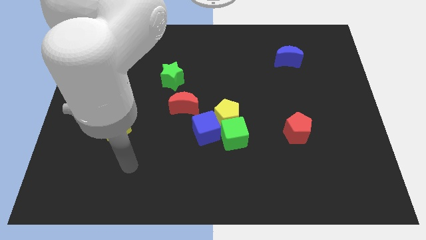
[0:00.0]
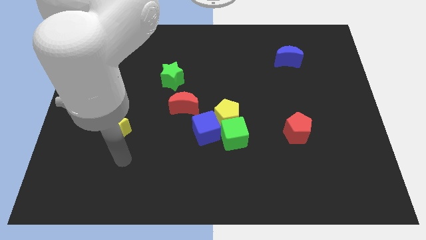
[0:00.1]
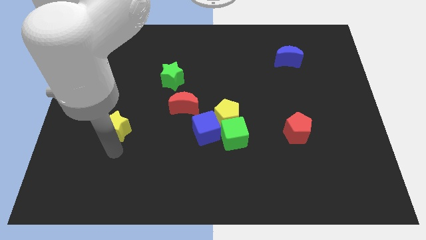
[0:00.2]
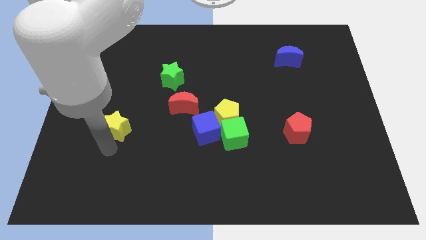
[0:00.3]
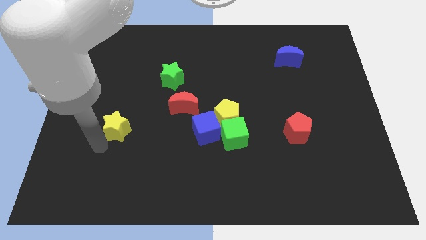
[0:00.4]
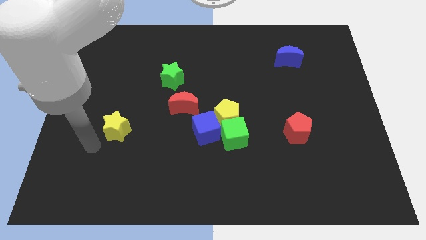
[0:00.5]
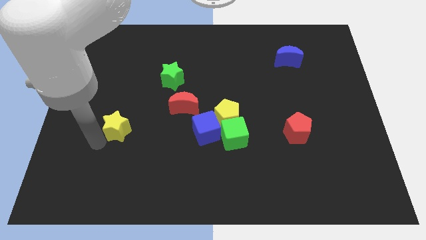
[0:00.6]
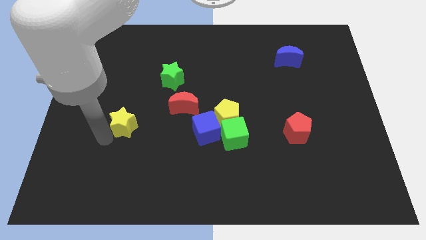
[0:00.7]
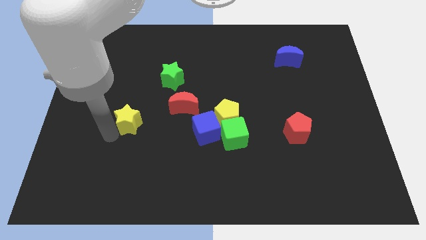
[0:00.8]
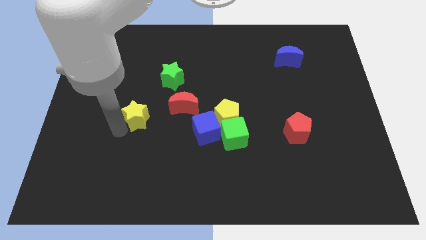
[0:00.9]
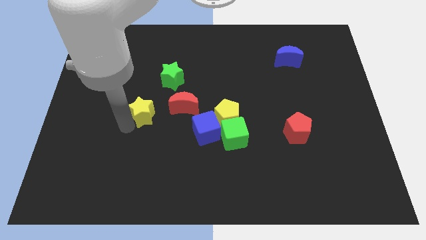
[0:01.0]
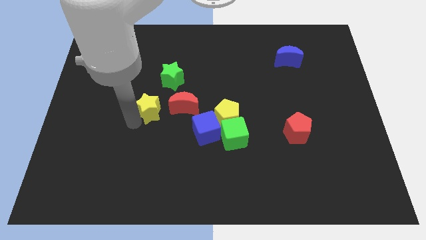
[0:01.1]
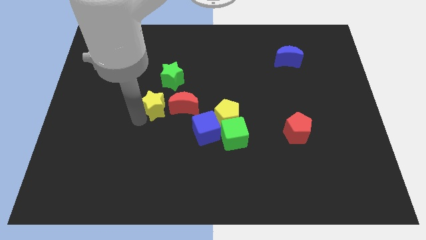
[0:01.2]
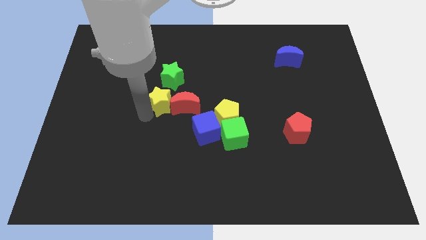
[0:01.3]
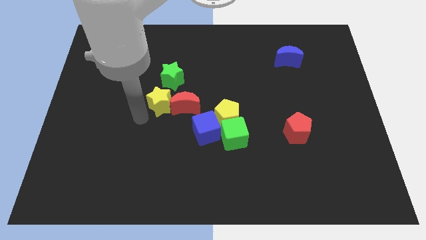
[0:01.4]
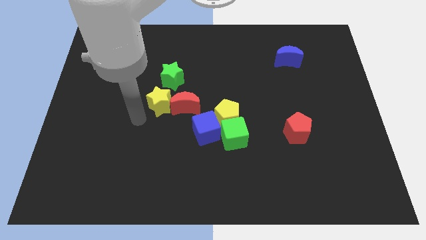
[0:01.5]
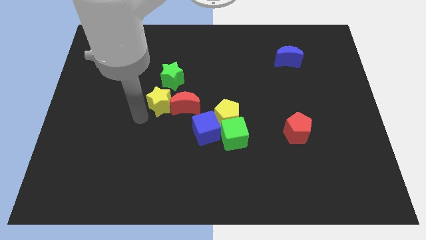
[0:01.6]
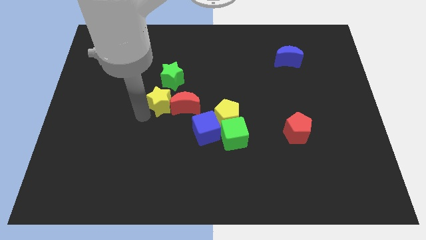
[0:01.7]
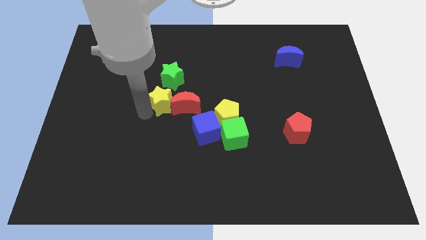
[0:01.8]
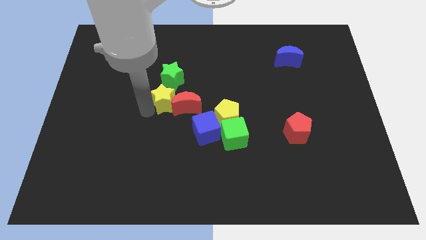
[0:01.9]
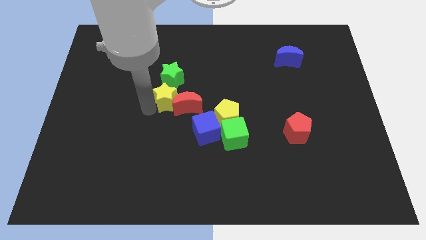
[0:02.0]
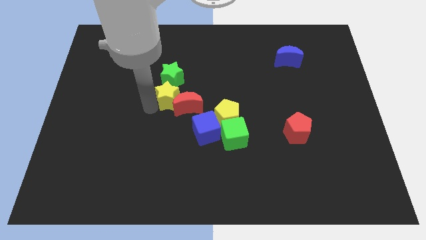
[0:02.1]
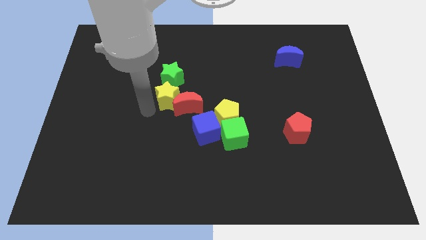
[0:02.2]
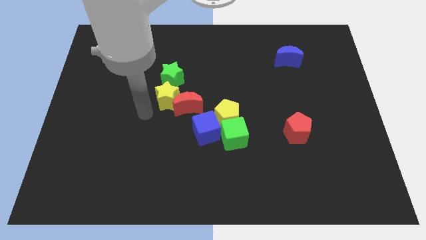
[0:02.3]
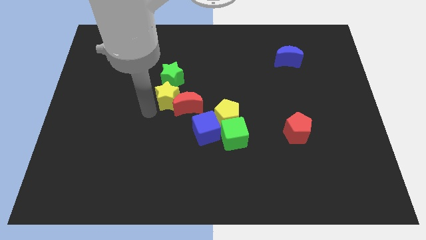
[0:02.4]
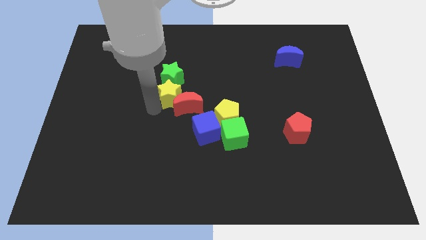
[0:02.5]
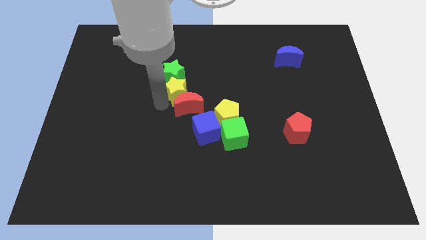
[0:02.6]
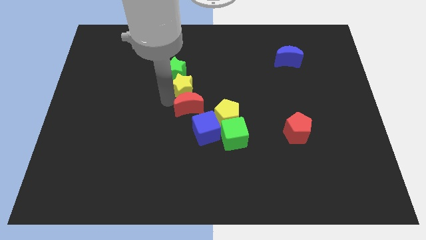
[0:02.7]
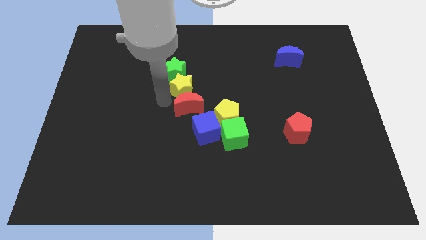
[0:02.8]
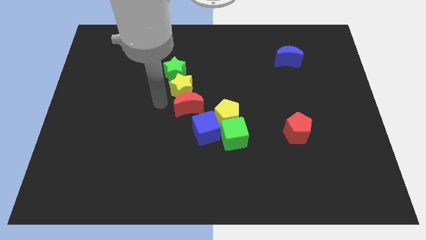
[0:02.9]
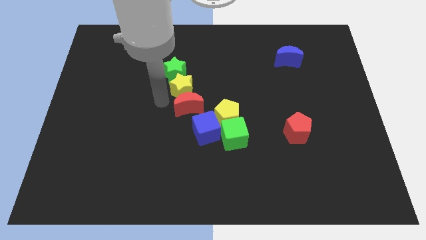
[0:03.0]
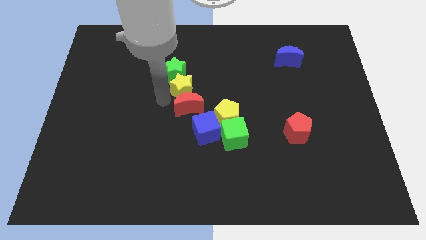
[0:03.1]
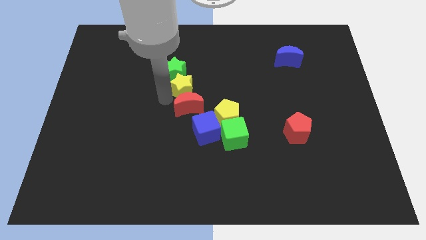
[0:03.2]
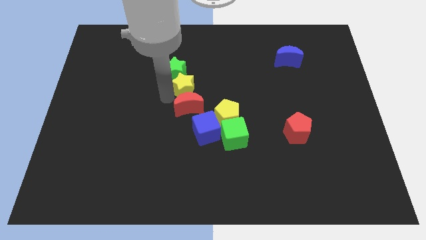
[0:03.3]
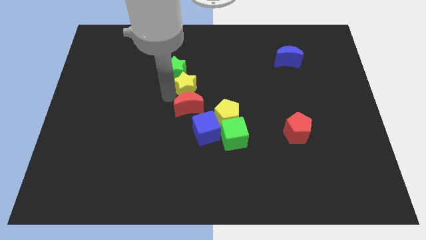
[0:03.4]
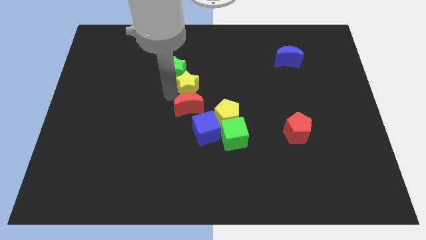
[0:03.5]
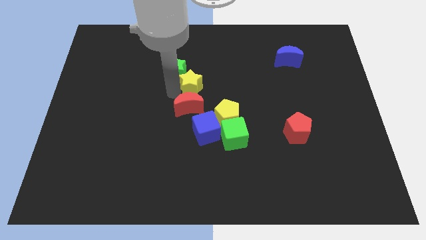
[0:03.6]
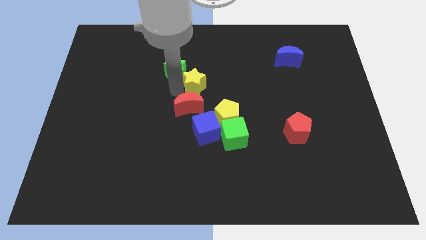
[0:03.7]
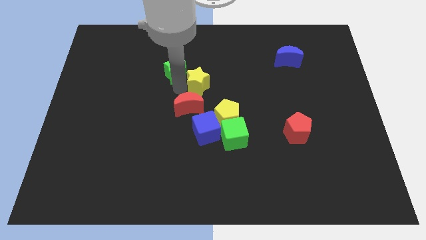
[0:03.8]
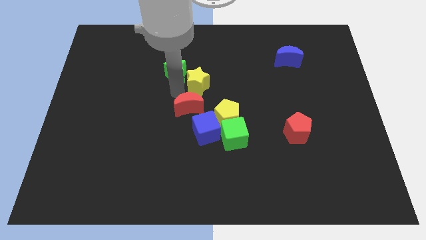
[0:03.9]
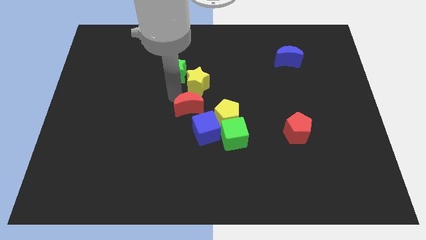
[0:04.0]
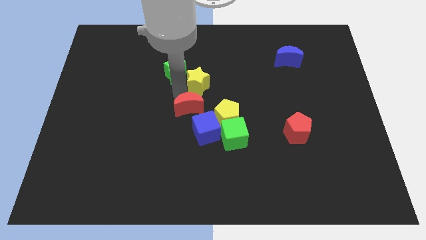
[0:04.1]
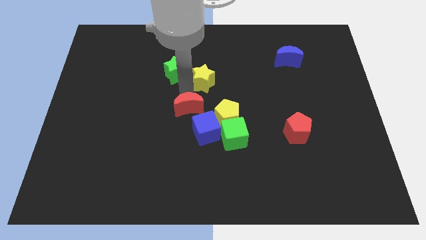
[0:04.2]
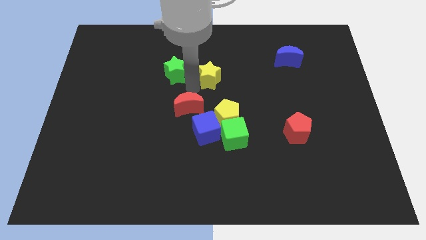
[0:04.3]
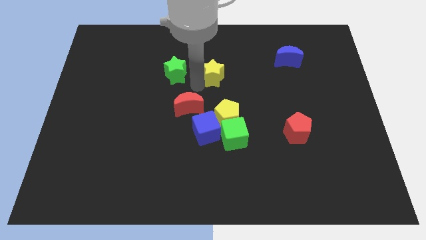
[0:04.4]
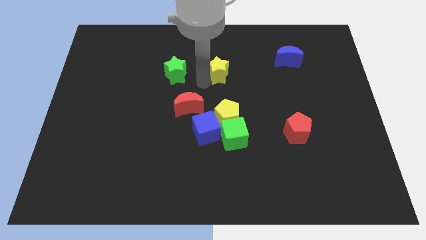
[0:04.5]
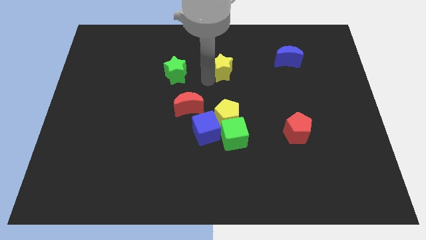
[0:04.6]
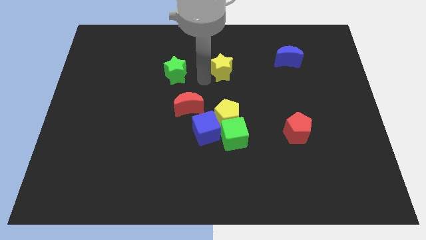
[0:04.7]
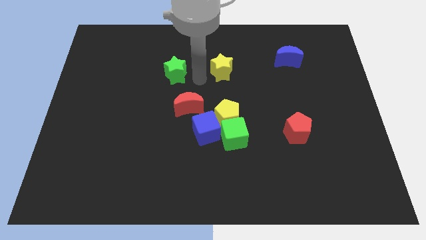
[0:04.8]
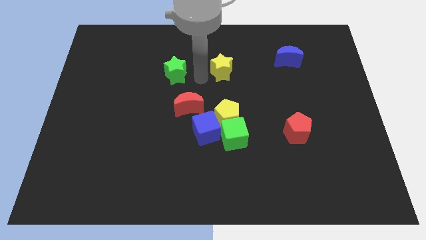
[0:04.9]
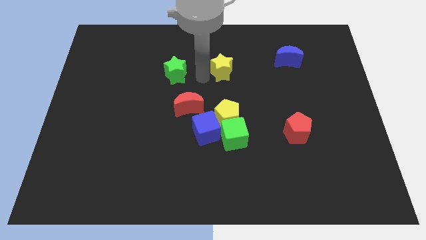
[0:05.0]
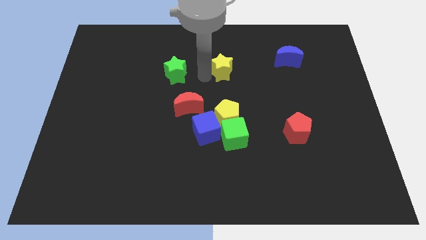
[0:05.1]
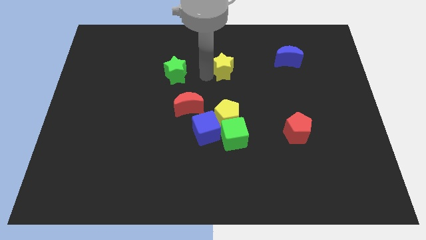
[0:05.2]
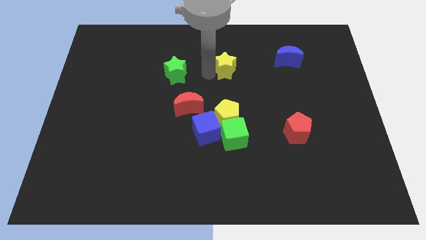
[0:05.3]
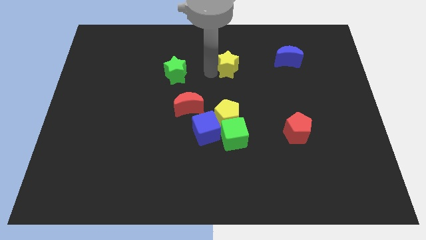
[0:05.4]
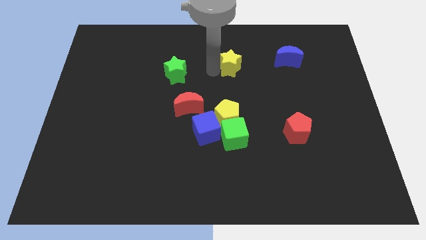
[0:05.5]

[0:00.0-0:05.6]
put the yellow star to the left of the blue moon

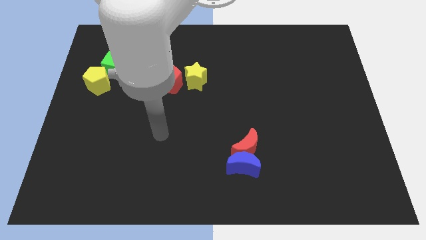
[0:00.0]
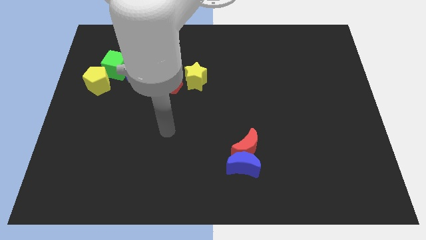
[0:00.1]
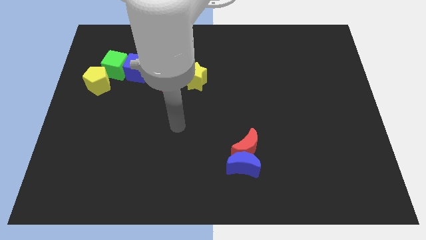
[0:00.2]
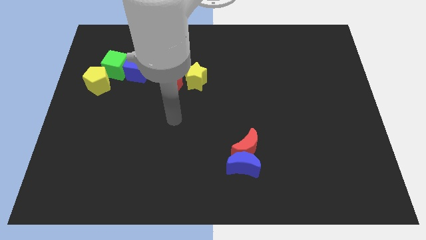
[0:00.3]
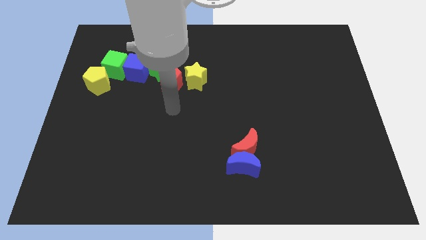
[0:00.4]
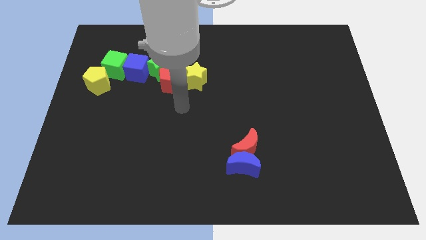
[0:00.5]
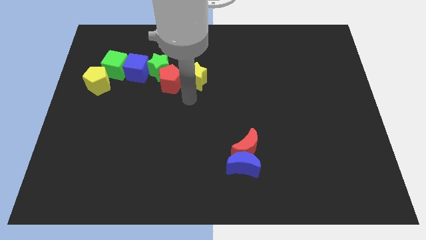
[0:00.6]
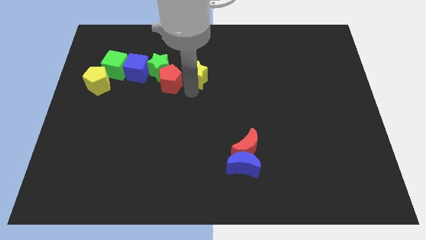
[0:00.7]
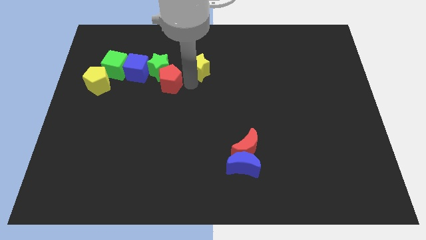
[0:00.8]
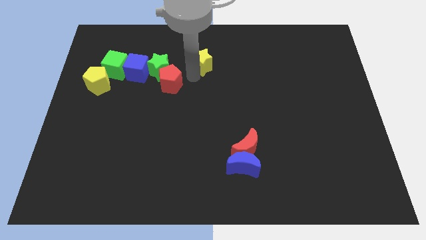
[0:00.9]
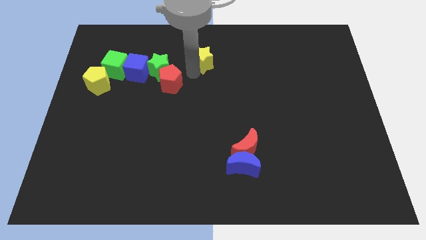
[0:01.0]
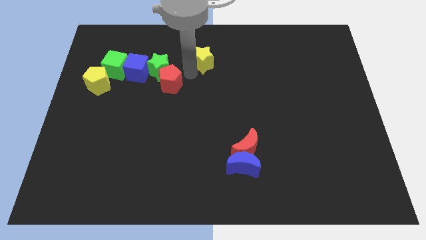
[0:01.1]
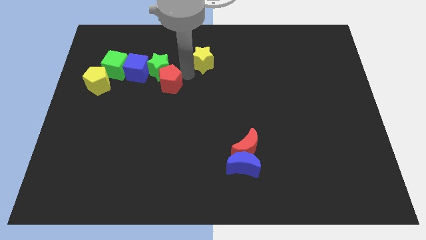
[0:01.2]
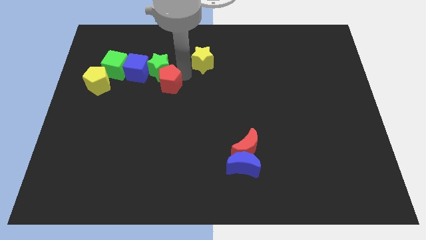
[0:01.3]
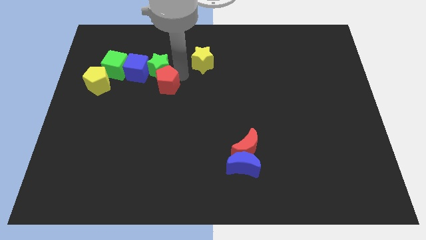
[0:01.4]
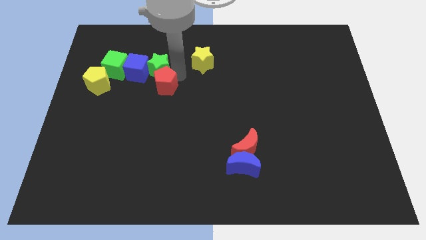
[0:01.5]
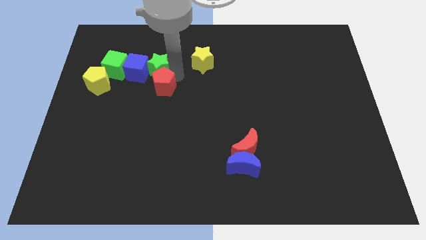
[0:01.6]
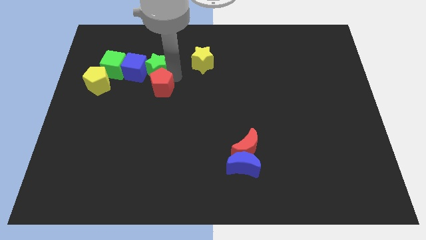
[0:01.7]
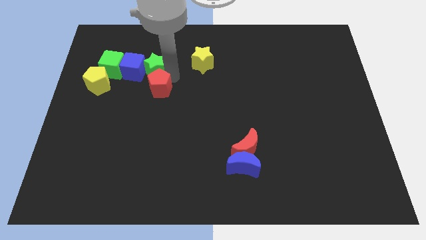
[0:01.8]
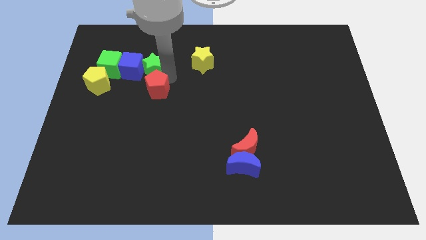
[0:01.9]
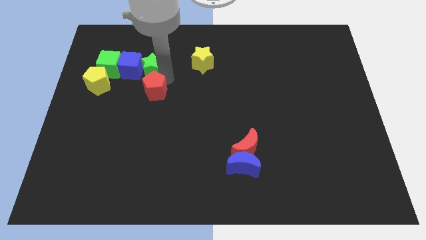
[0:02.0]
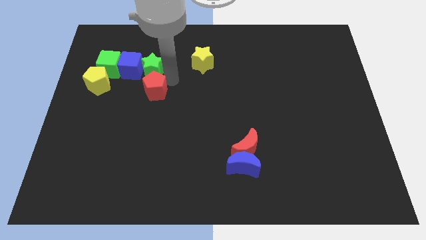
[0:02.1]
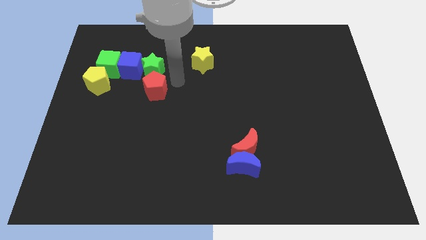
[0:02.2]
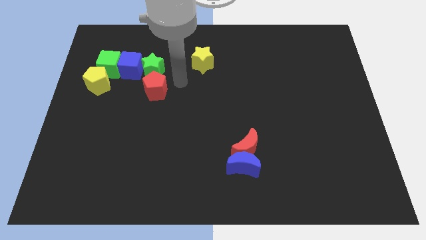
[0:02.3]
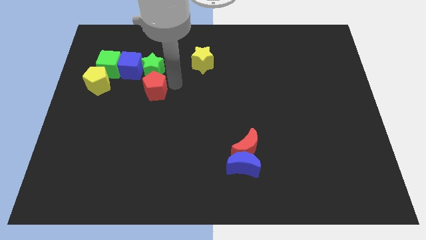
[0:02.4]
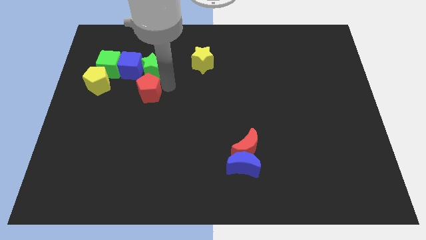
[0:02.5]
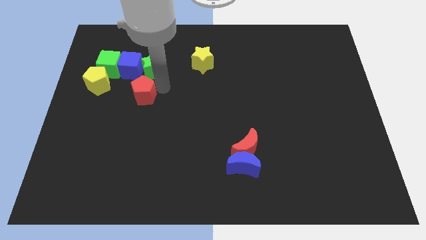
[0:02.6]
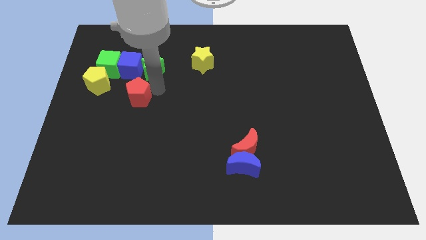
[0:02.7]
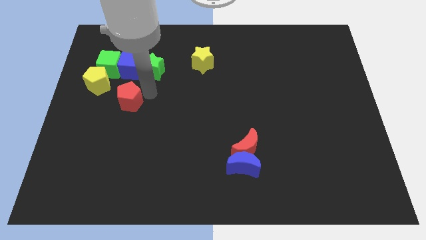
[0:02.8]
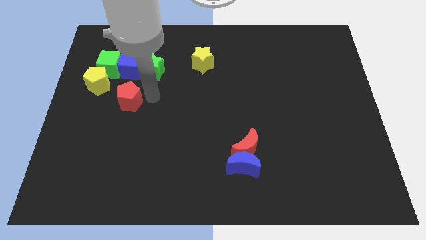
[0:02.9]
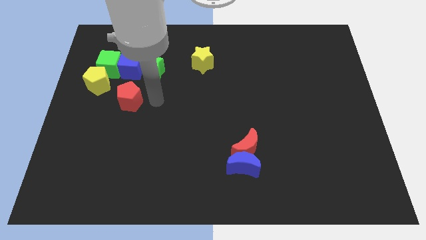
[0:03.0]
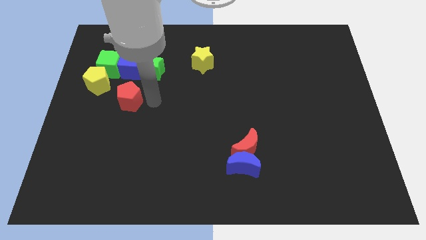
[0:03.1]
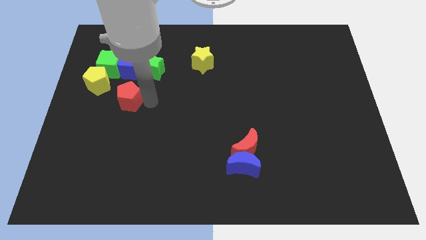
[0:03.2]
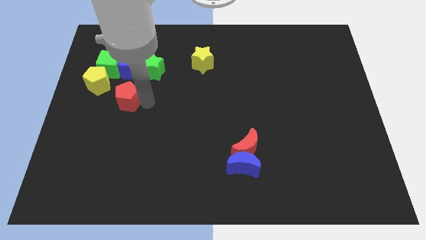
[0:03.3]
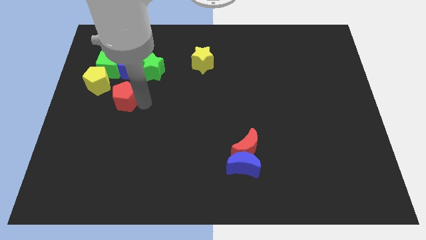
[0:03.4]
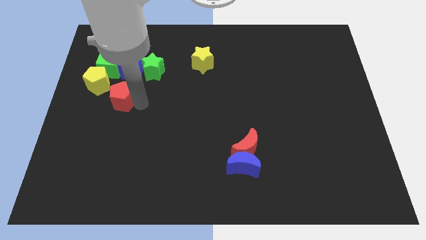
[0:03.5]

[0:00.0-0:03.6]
slide the red pentagon below the green cube
